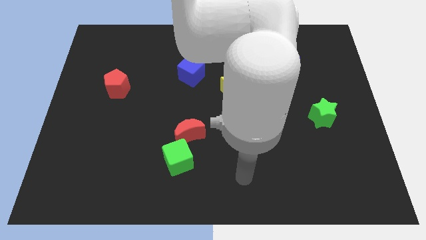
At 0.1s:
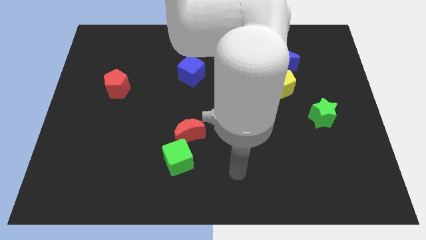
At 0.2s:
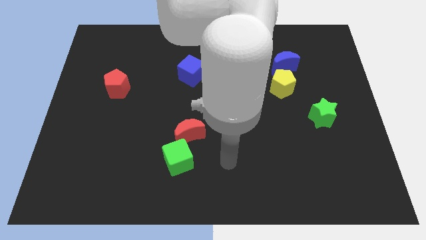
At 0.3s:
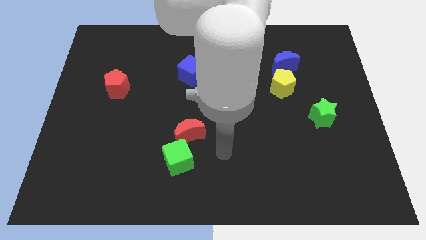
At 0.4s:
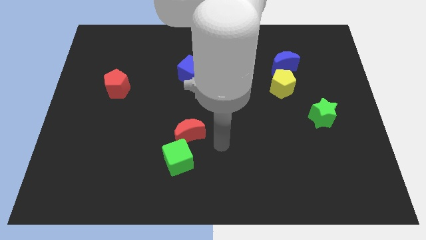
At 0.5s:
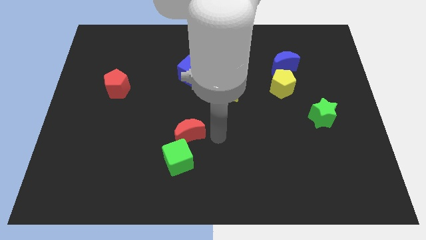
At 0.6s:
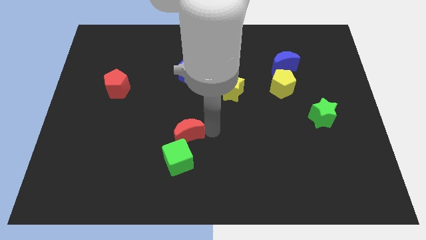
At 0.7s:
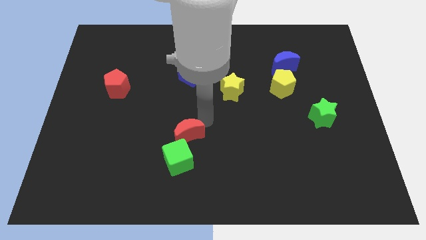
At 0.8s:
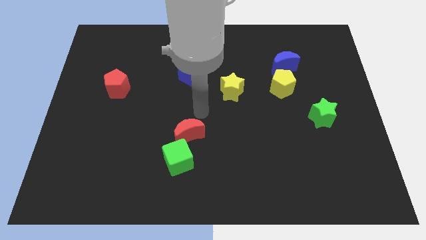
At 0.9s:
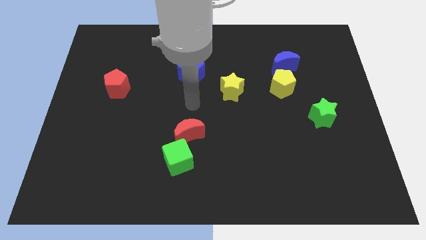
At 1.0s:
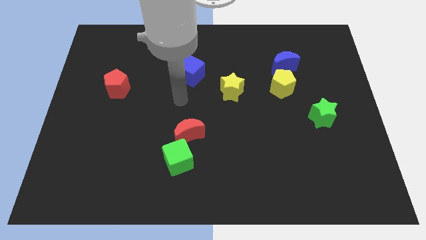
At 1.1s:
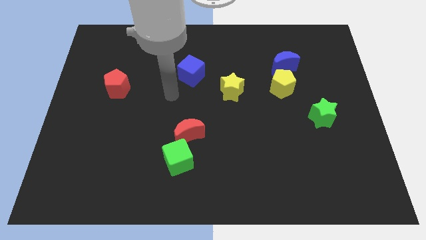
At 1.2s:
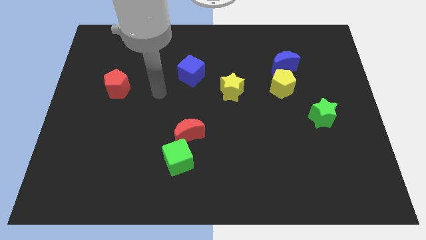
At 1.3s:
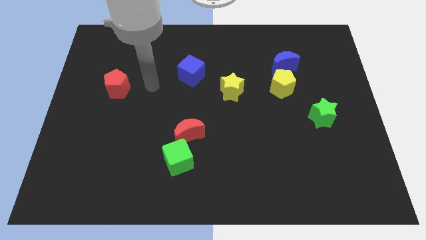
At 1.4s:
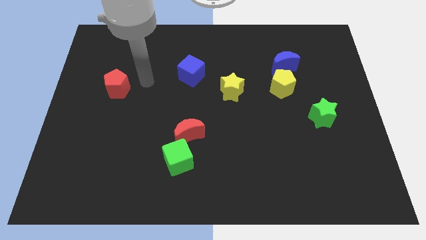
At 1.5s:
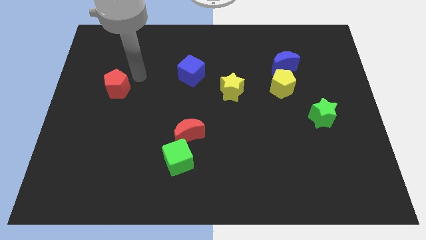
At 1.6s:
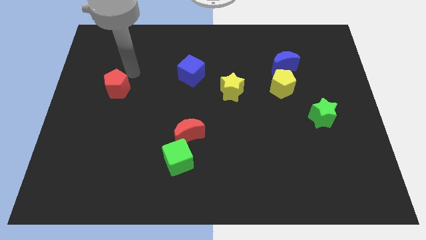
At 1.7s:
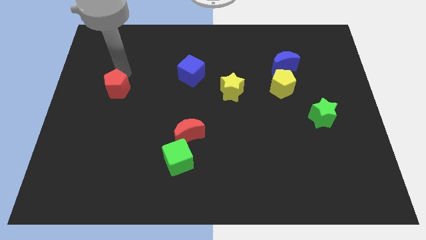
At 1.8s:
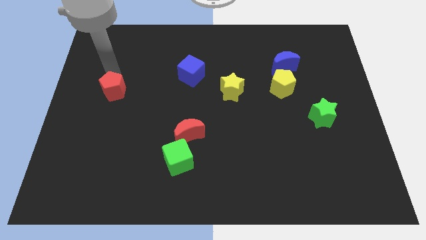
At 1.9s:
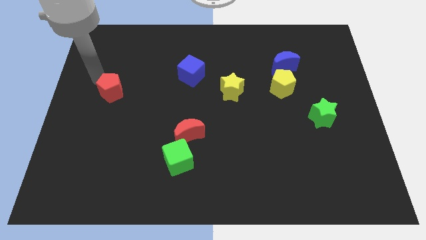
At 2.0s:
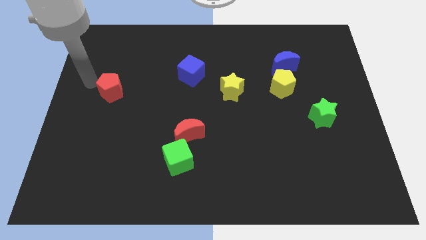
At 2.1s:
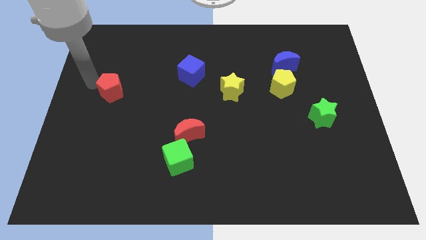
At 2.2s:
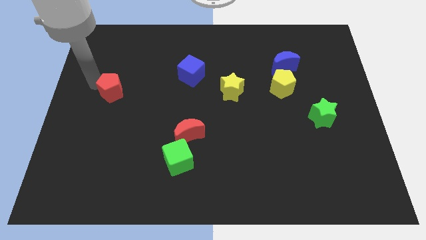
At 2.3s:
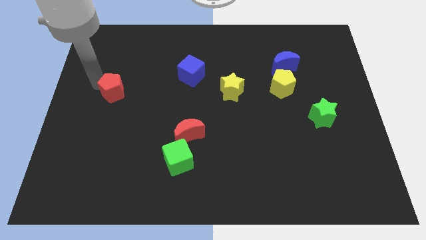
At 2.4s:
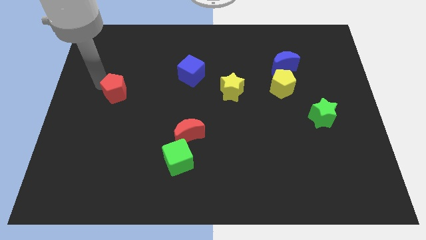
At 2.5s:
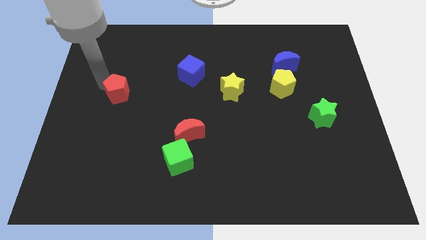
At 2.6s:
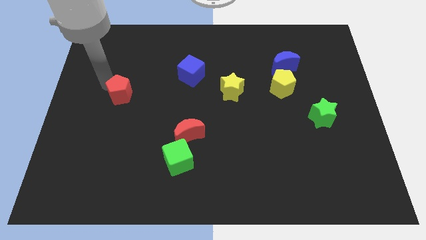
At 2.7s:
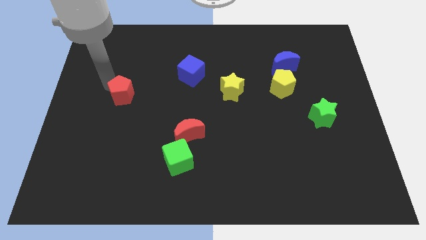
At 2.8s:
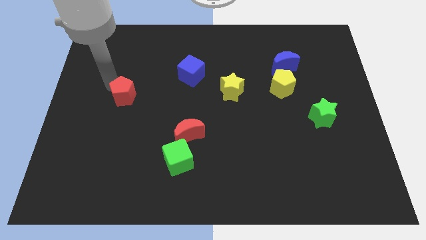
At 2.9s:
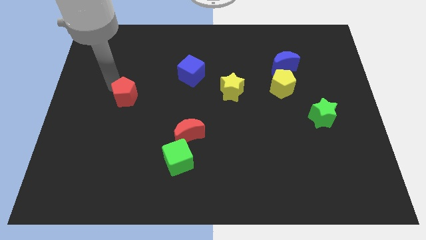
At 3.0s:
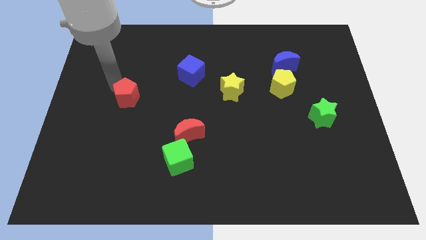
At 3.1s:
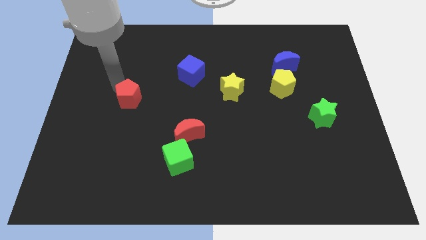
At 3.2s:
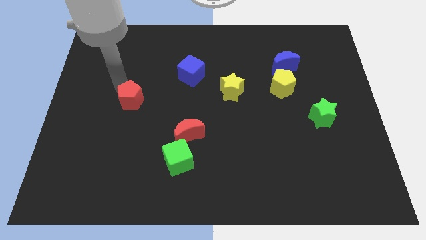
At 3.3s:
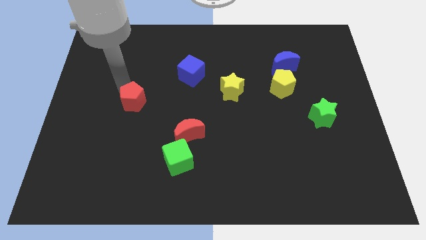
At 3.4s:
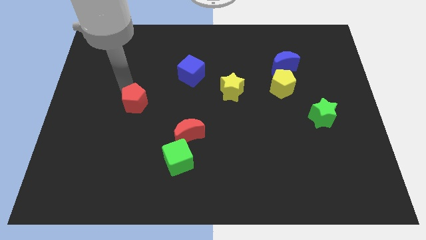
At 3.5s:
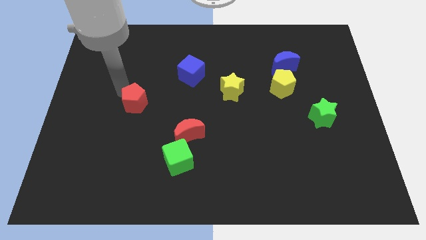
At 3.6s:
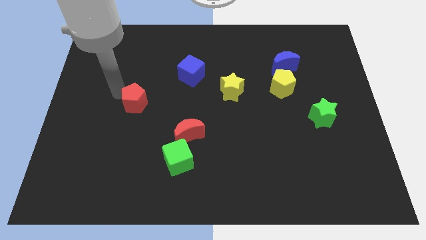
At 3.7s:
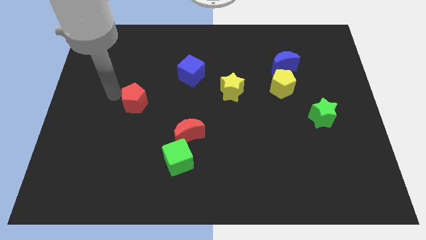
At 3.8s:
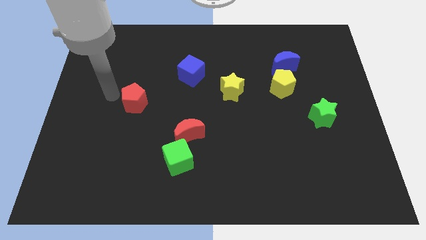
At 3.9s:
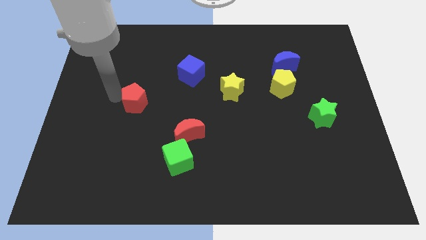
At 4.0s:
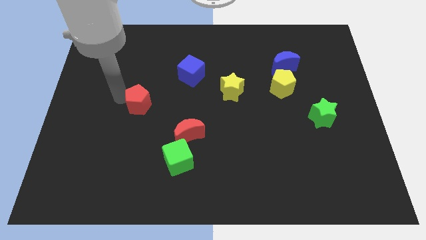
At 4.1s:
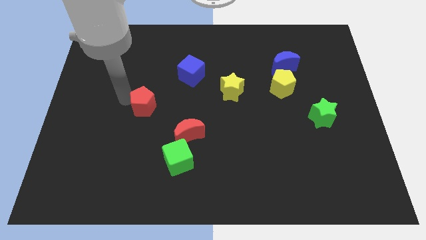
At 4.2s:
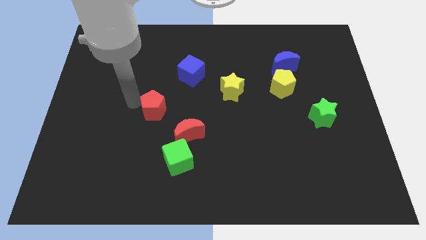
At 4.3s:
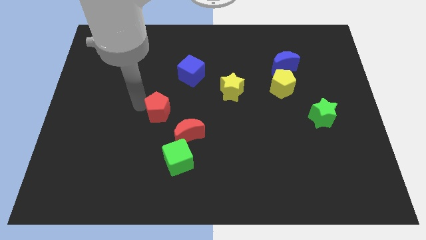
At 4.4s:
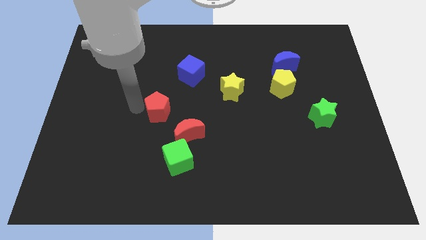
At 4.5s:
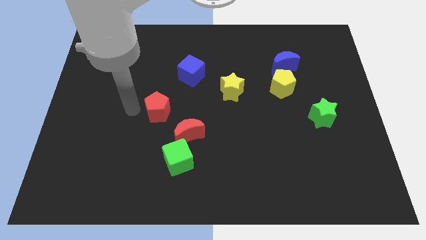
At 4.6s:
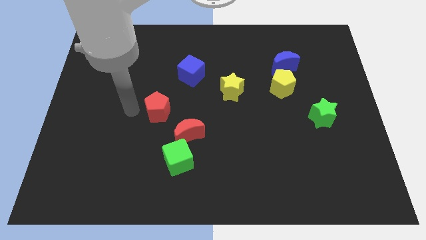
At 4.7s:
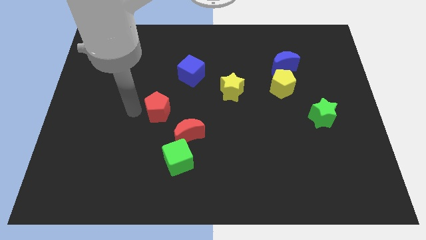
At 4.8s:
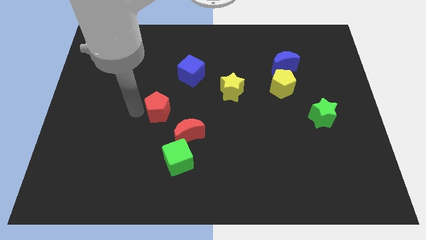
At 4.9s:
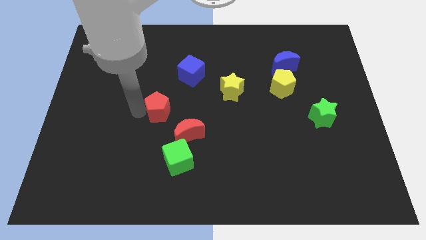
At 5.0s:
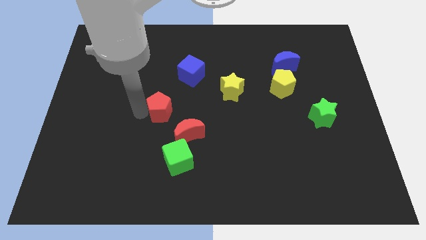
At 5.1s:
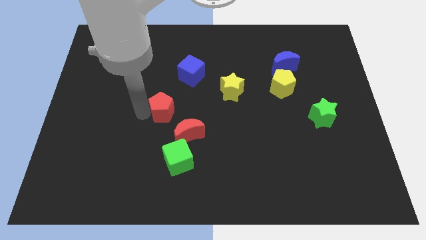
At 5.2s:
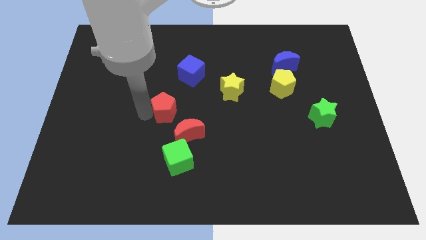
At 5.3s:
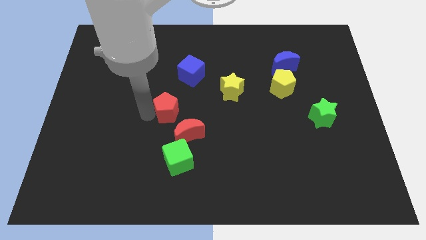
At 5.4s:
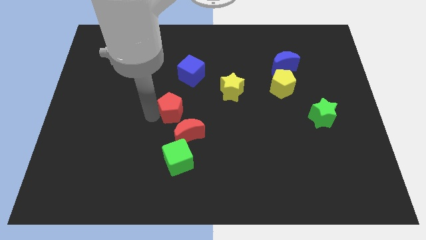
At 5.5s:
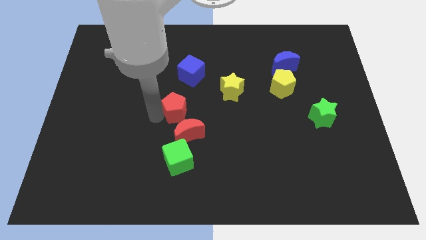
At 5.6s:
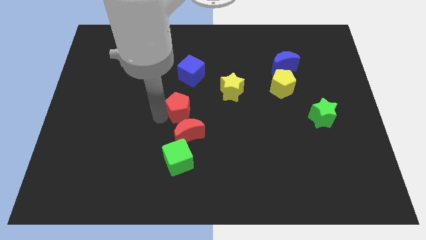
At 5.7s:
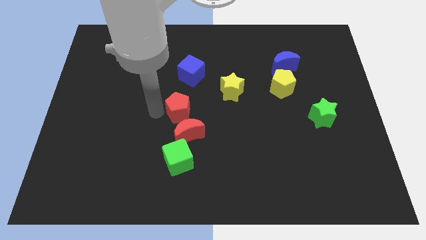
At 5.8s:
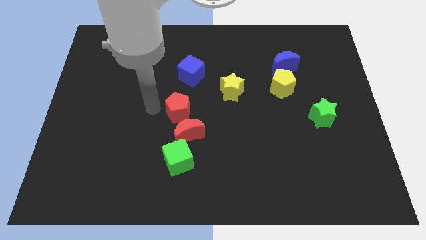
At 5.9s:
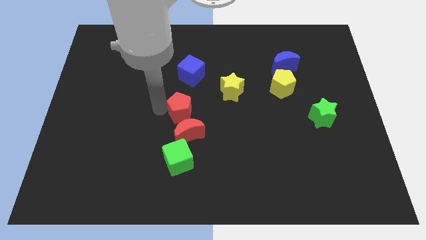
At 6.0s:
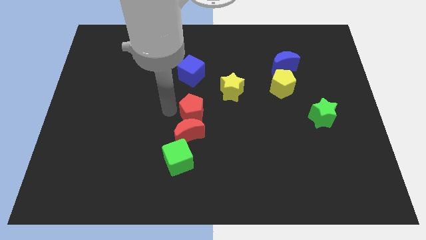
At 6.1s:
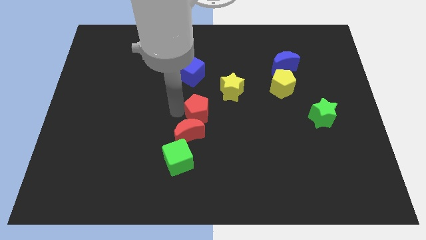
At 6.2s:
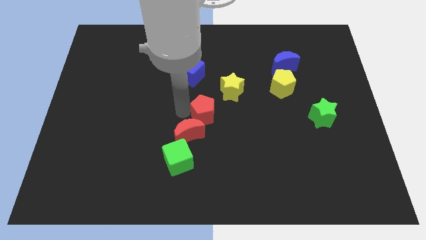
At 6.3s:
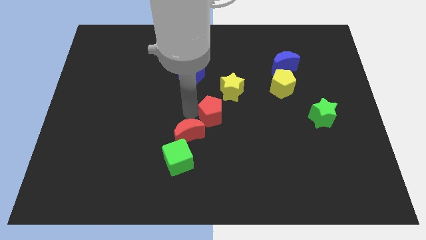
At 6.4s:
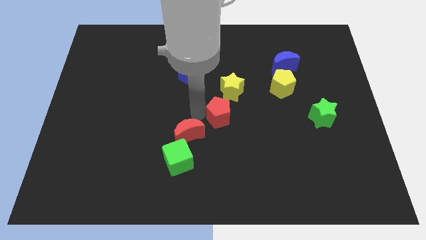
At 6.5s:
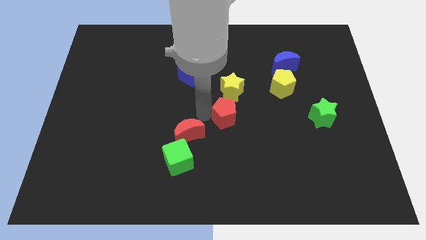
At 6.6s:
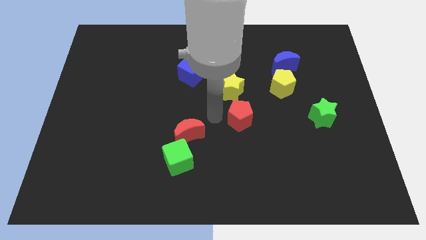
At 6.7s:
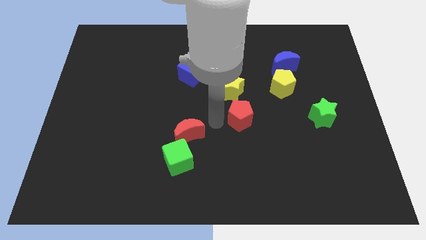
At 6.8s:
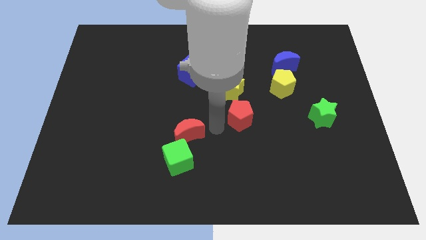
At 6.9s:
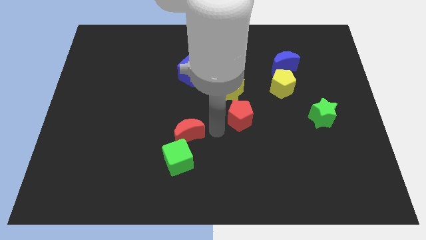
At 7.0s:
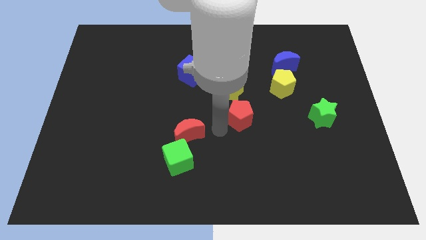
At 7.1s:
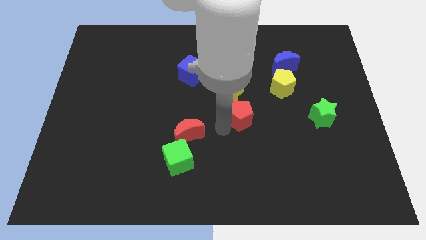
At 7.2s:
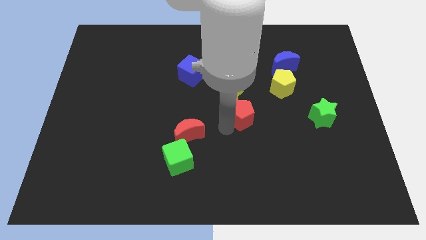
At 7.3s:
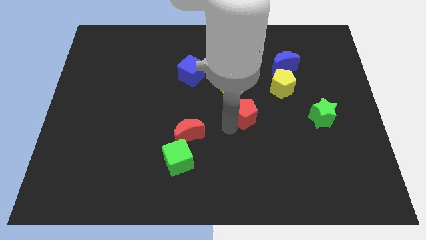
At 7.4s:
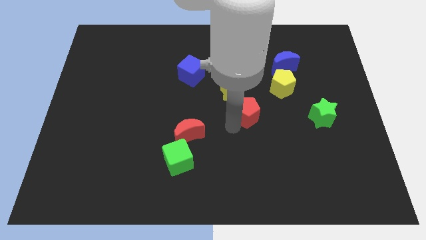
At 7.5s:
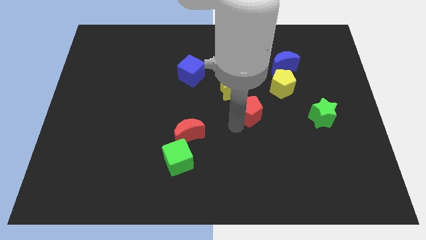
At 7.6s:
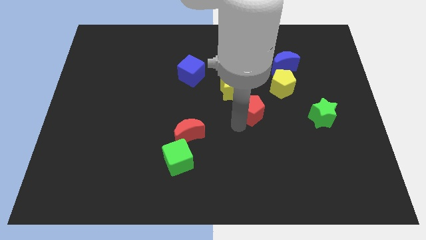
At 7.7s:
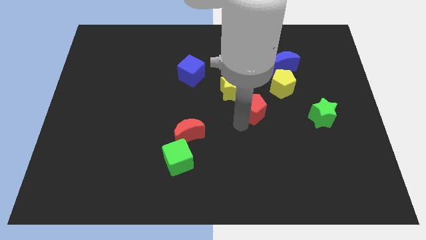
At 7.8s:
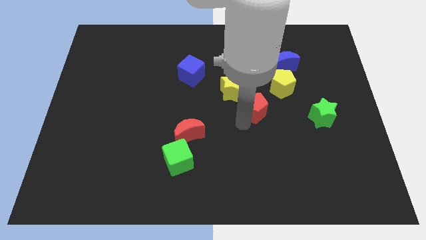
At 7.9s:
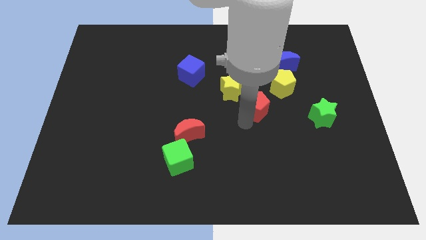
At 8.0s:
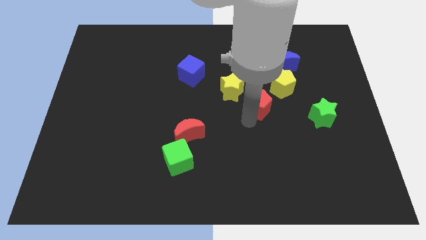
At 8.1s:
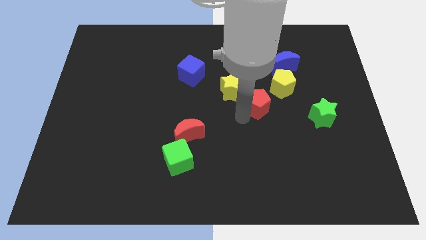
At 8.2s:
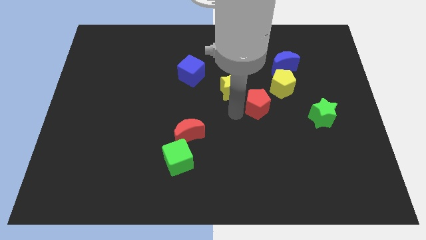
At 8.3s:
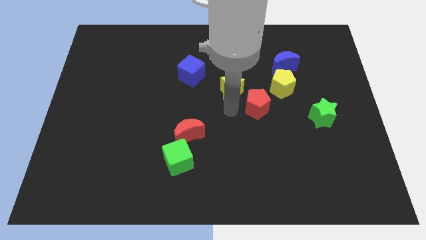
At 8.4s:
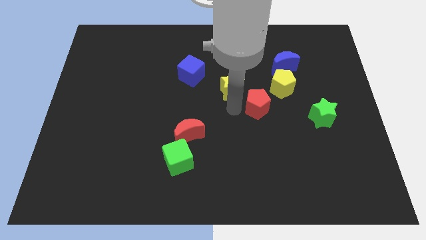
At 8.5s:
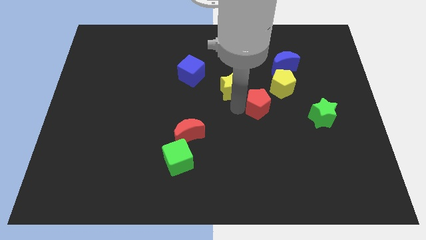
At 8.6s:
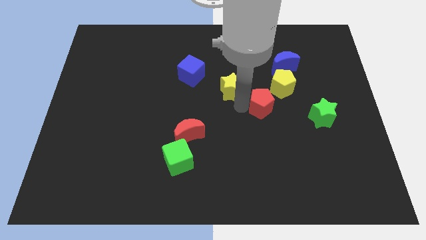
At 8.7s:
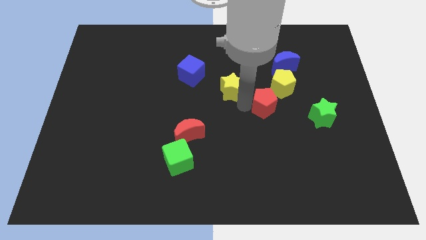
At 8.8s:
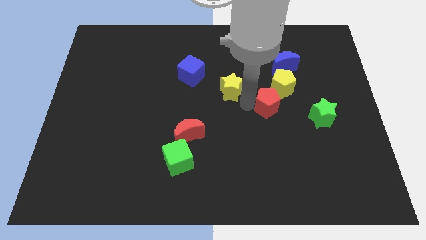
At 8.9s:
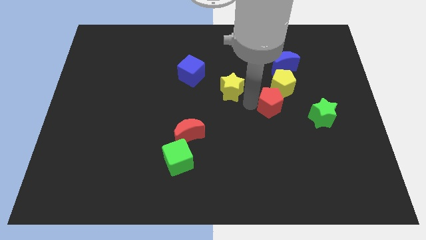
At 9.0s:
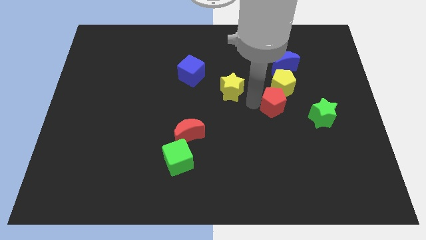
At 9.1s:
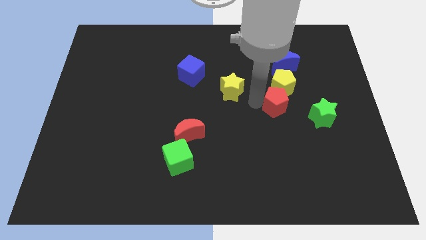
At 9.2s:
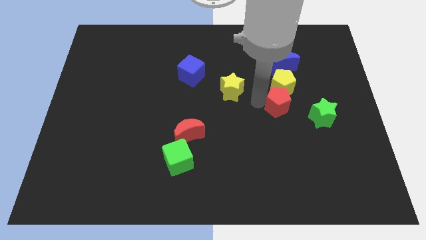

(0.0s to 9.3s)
put the red pentagon to the bottom right of the yellow pentagon
